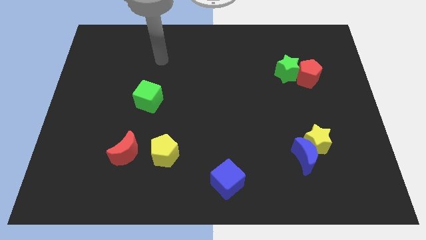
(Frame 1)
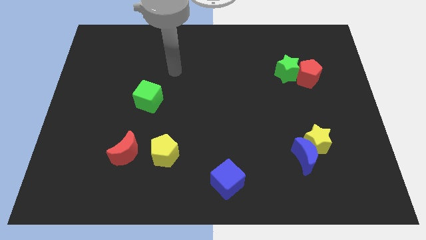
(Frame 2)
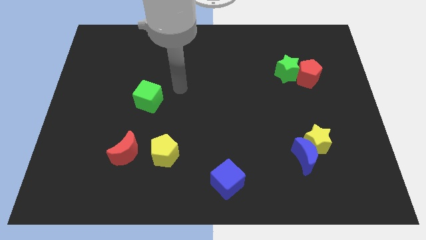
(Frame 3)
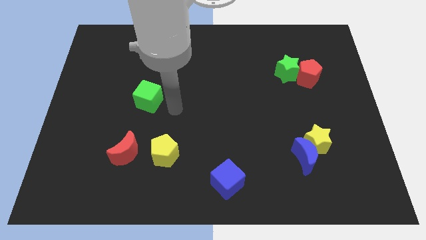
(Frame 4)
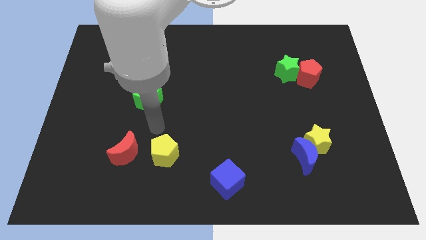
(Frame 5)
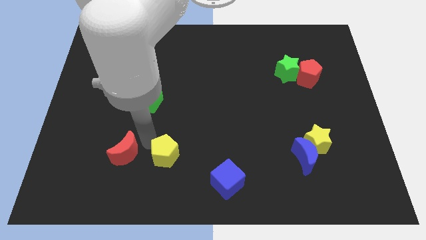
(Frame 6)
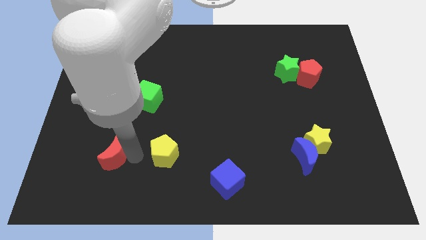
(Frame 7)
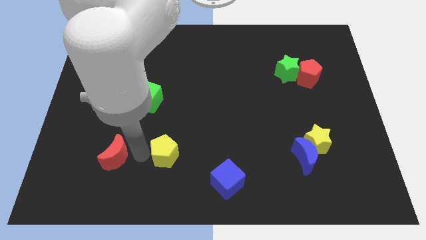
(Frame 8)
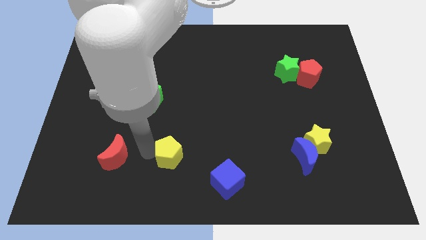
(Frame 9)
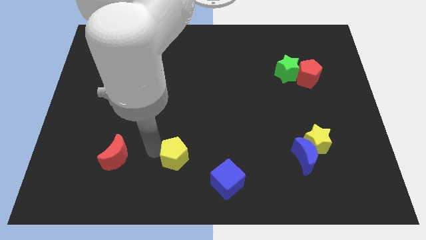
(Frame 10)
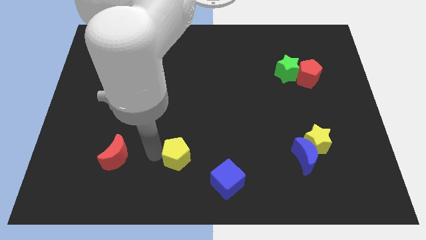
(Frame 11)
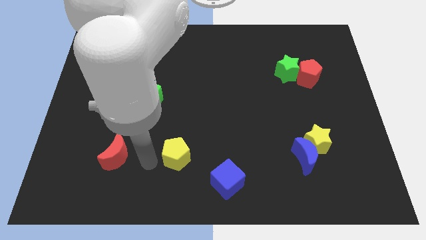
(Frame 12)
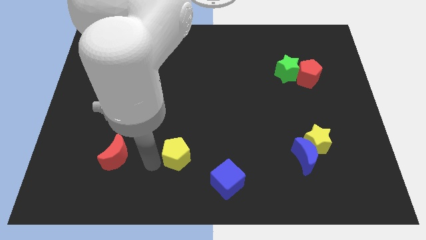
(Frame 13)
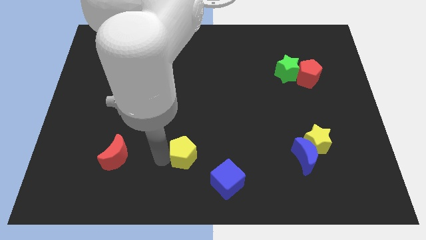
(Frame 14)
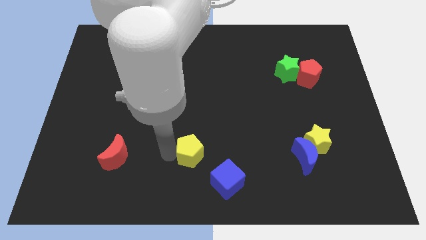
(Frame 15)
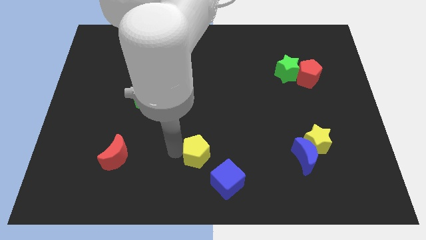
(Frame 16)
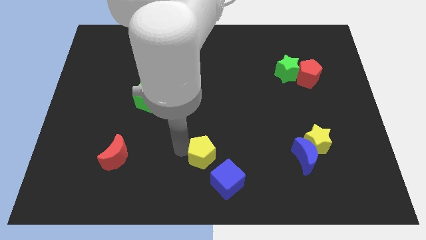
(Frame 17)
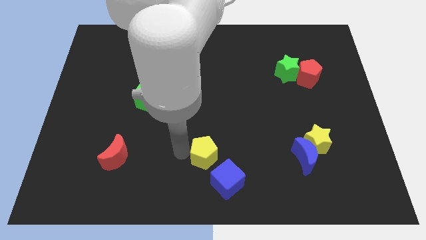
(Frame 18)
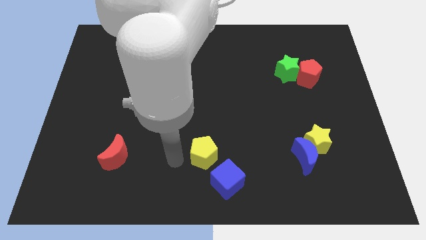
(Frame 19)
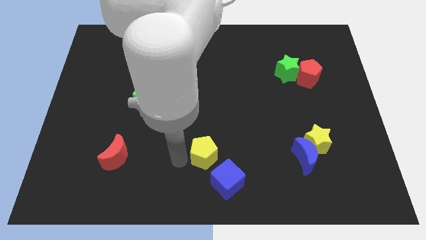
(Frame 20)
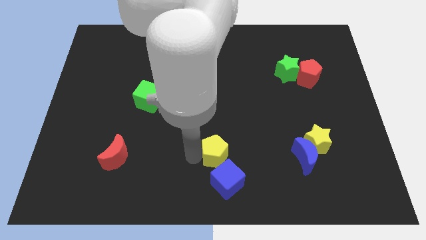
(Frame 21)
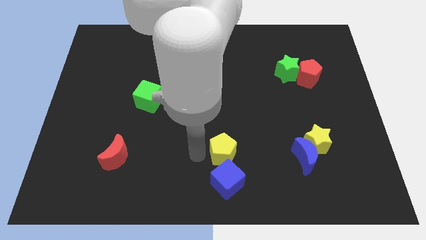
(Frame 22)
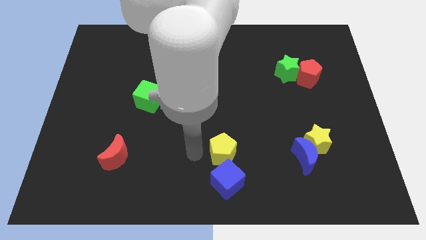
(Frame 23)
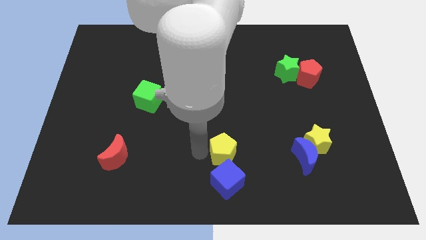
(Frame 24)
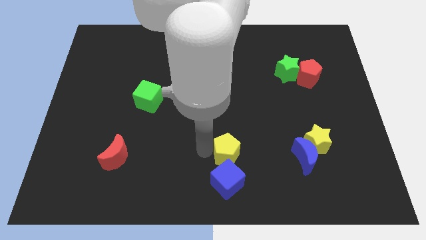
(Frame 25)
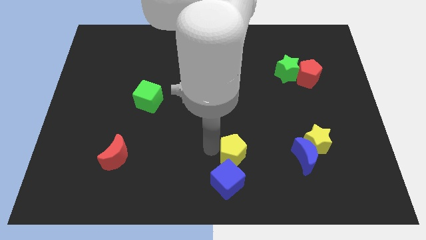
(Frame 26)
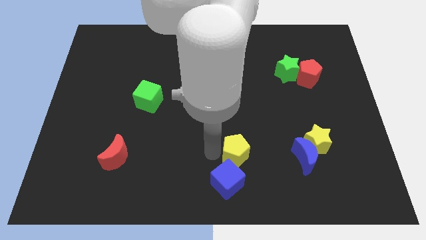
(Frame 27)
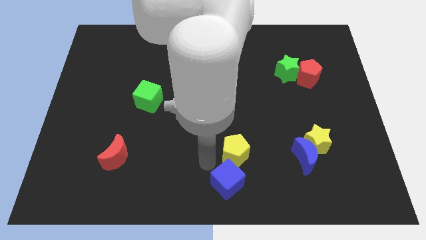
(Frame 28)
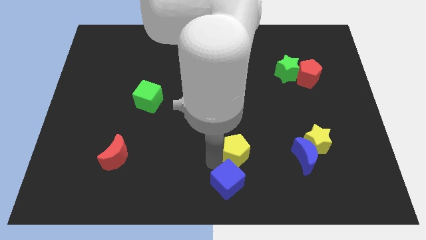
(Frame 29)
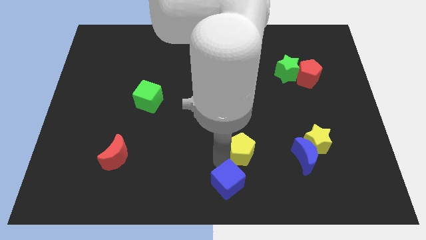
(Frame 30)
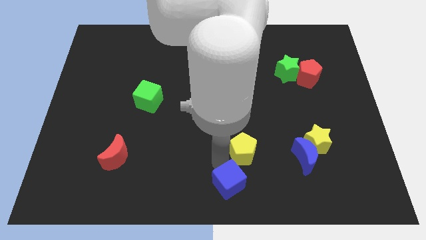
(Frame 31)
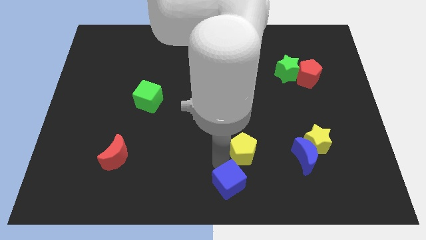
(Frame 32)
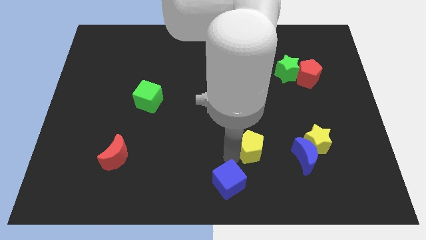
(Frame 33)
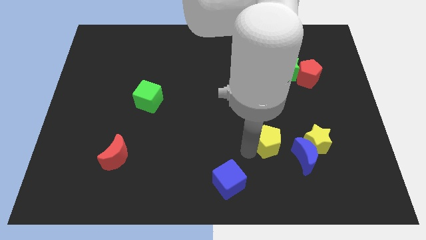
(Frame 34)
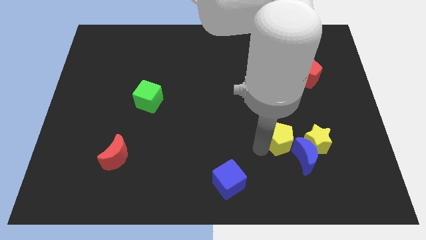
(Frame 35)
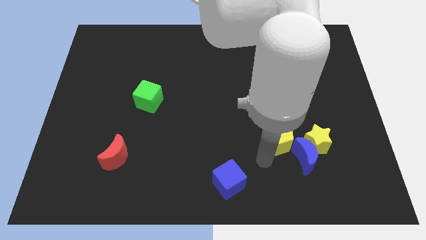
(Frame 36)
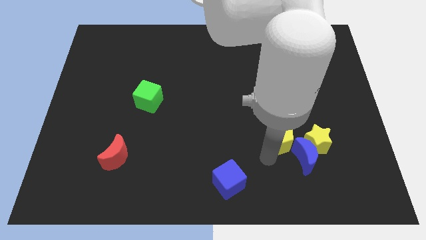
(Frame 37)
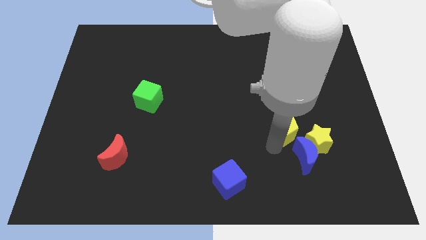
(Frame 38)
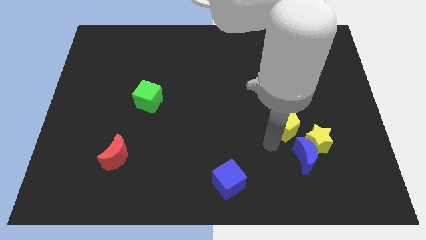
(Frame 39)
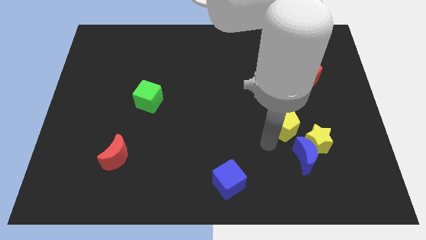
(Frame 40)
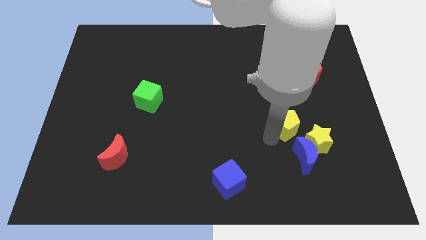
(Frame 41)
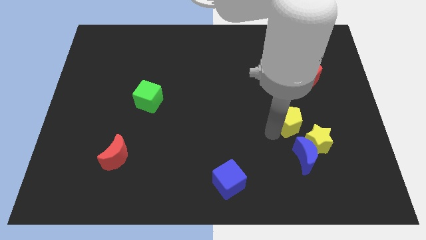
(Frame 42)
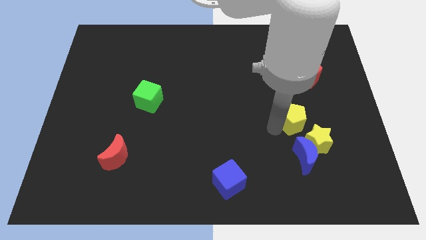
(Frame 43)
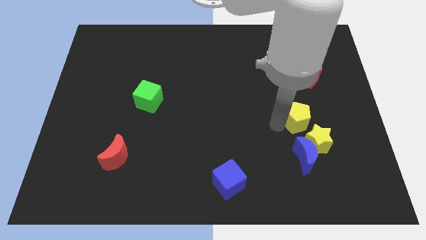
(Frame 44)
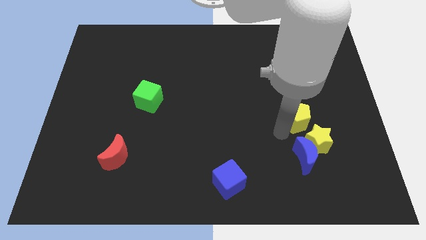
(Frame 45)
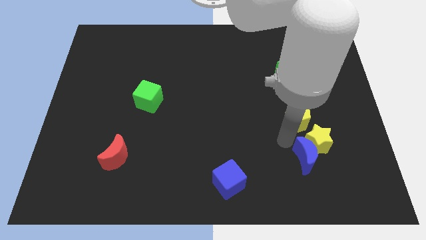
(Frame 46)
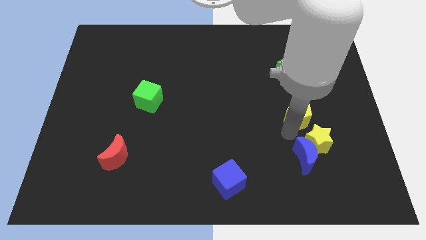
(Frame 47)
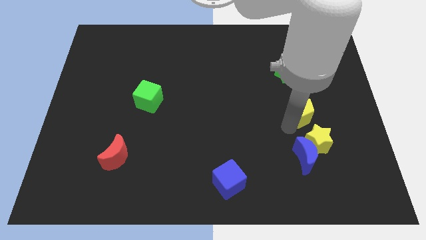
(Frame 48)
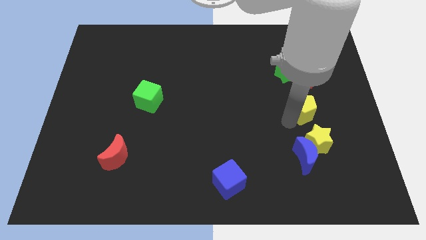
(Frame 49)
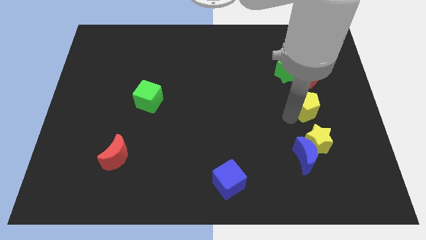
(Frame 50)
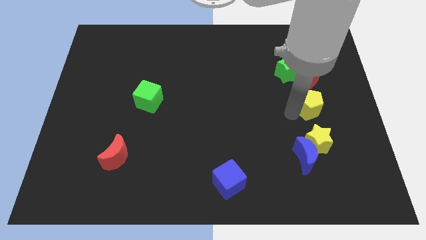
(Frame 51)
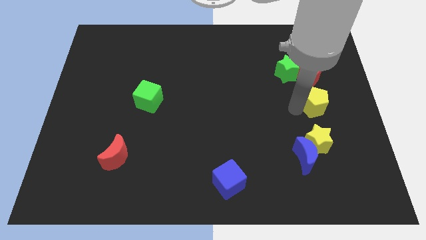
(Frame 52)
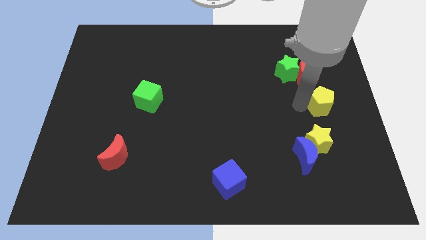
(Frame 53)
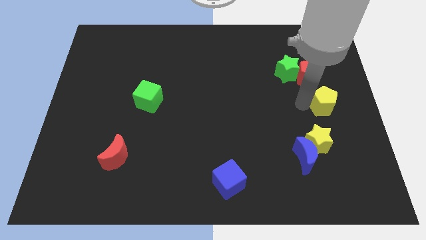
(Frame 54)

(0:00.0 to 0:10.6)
move the yellow pentagon to the bottom right side of the red pentagon

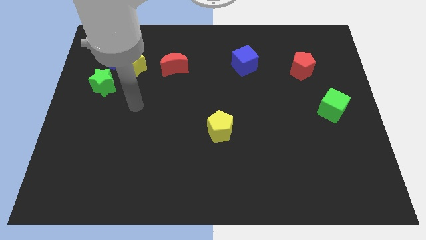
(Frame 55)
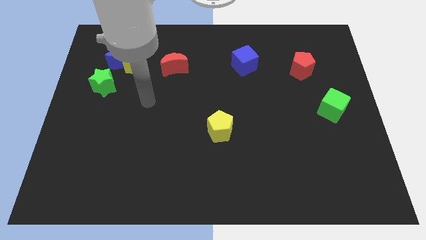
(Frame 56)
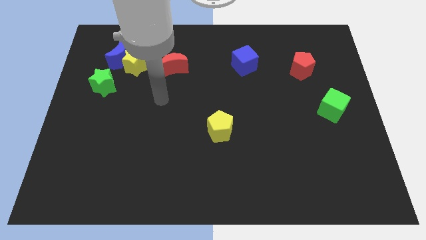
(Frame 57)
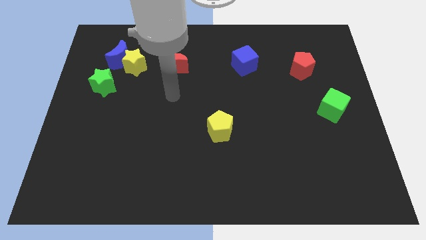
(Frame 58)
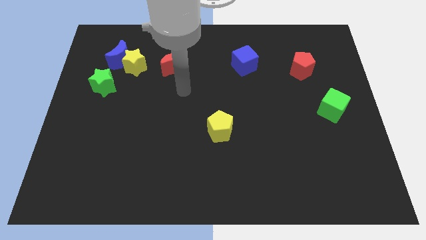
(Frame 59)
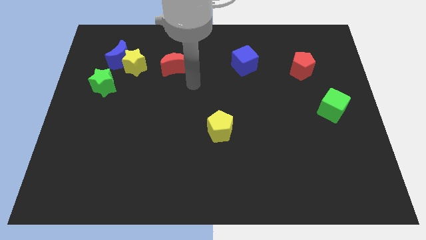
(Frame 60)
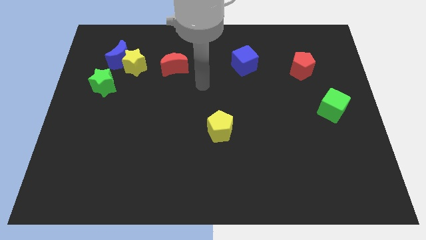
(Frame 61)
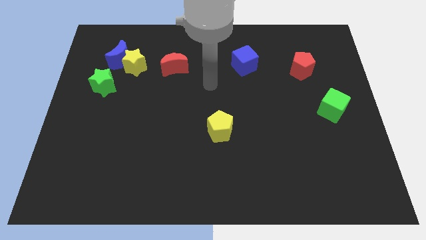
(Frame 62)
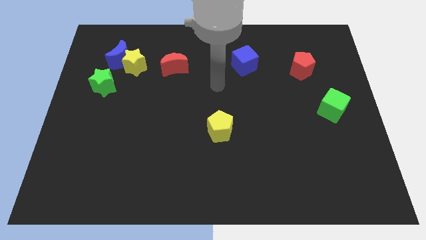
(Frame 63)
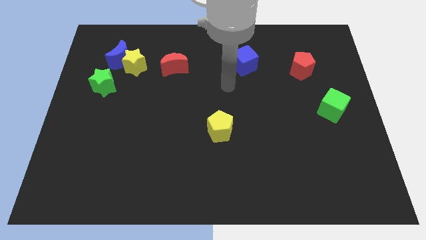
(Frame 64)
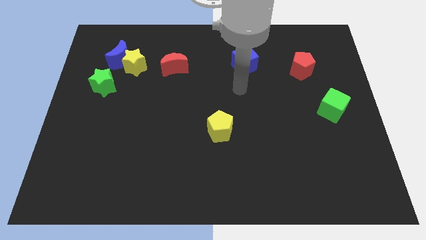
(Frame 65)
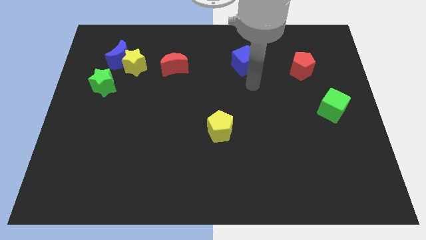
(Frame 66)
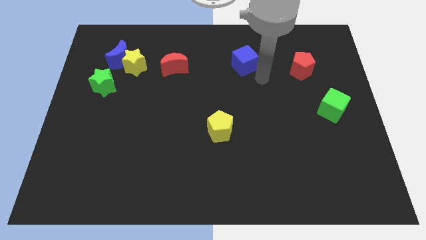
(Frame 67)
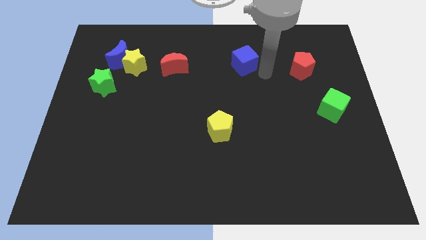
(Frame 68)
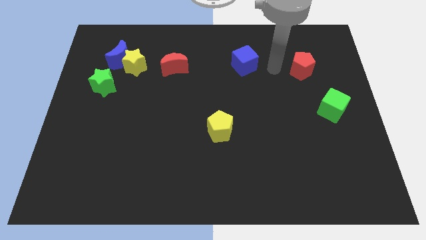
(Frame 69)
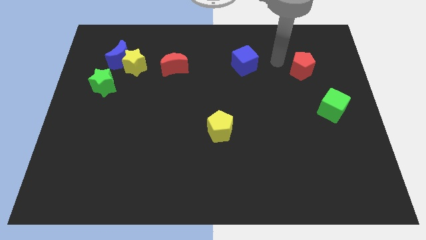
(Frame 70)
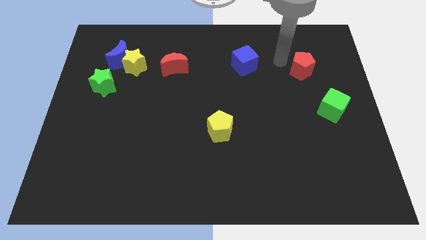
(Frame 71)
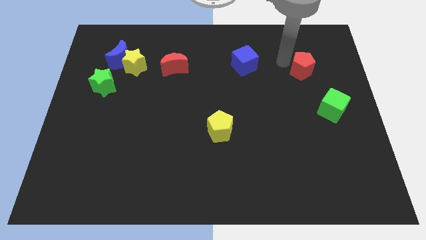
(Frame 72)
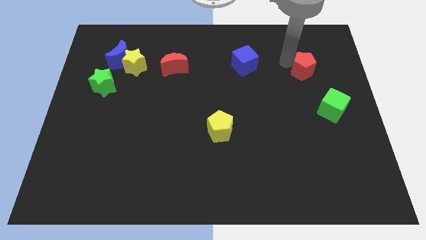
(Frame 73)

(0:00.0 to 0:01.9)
push the red pentagon to the top of the green cube
